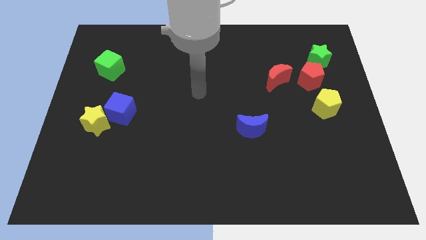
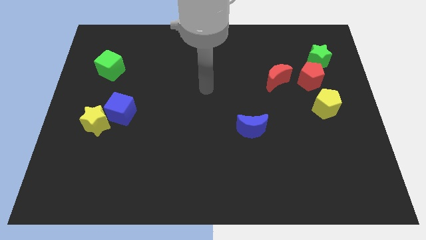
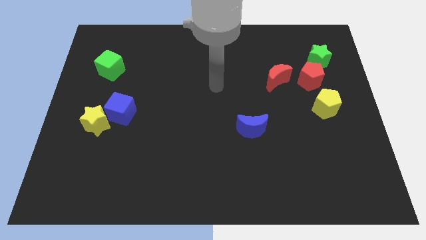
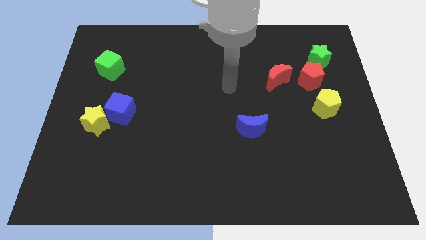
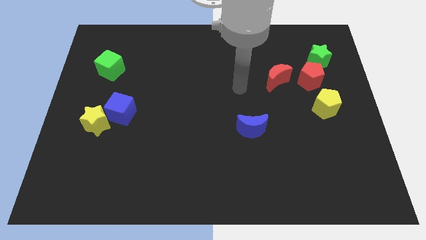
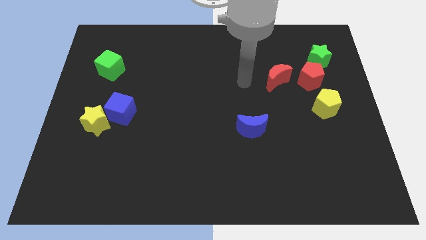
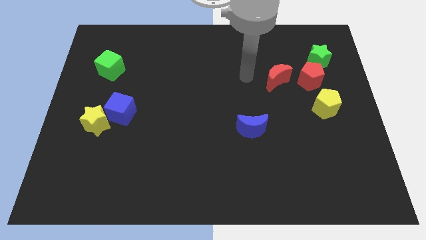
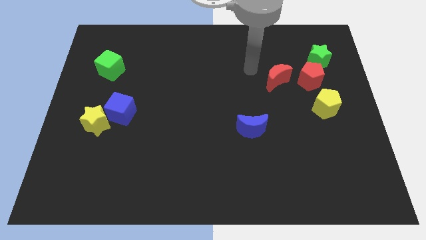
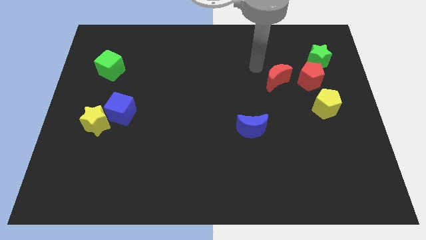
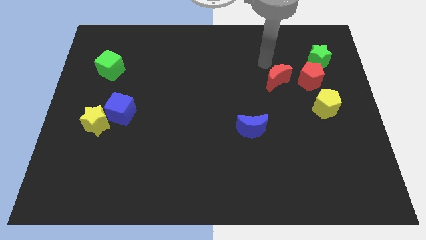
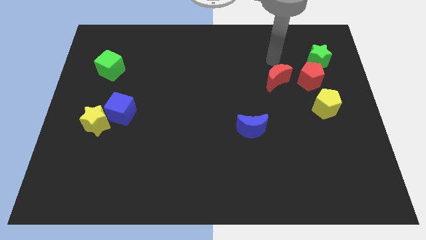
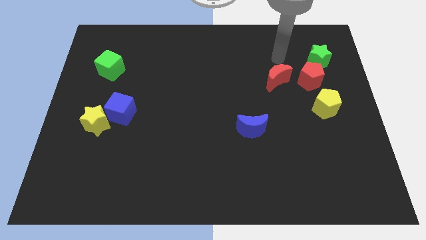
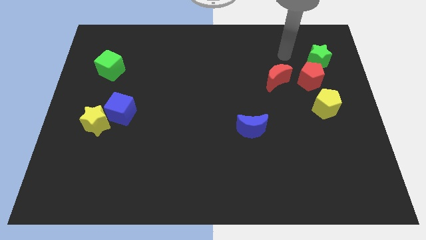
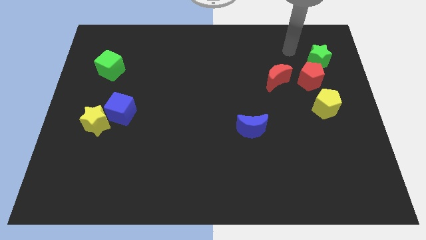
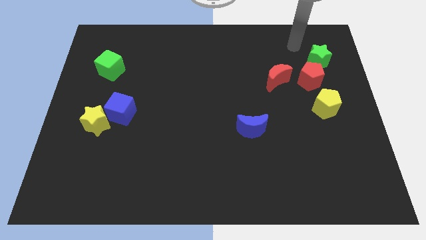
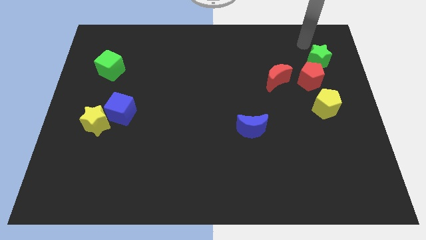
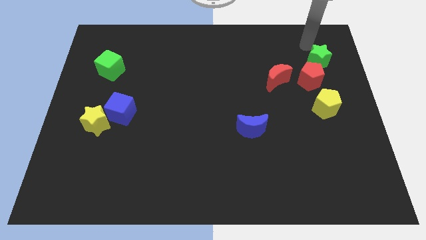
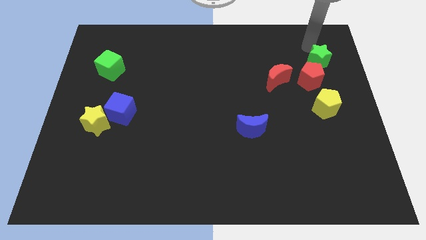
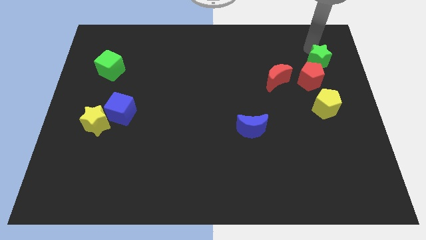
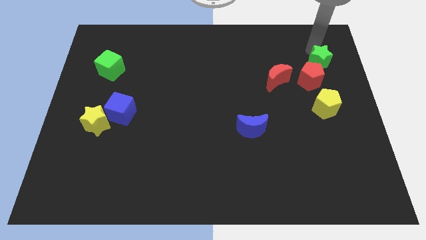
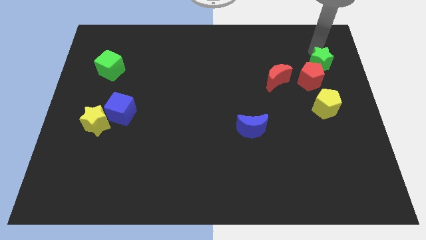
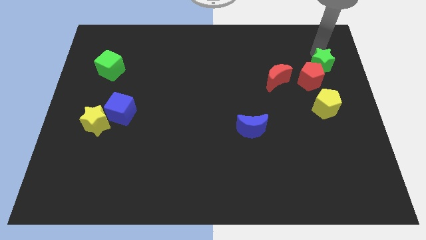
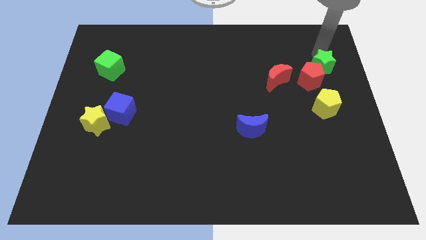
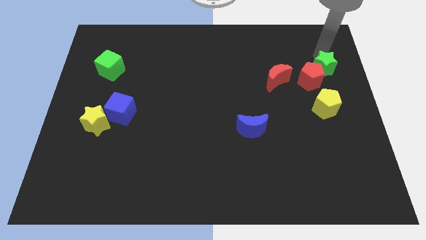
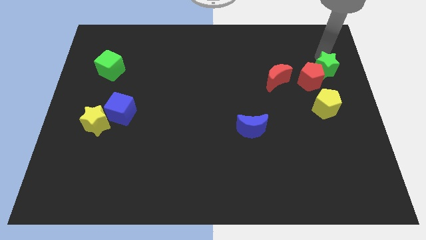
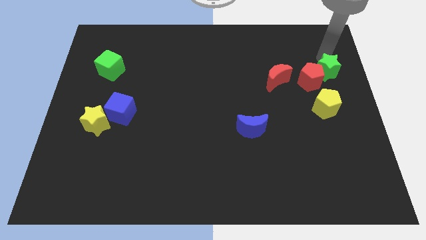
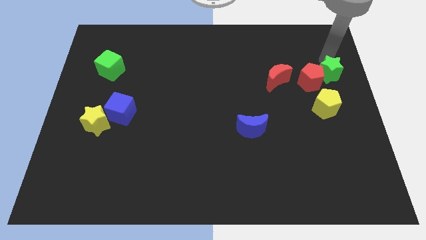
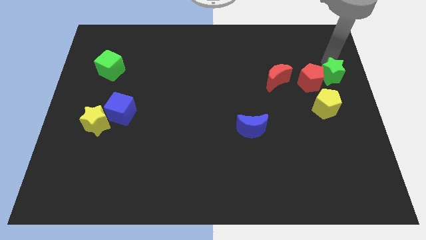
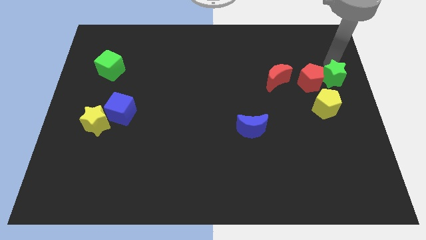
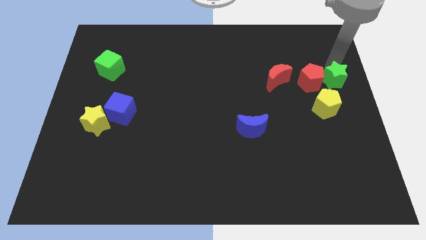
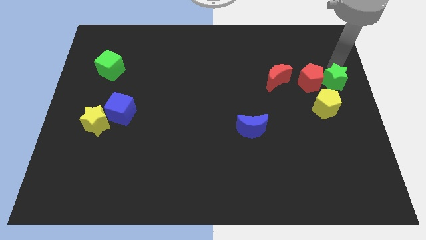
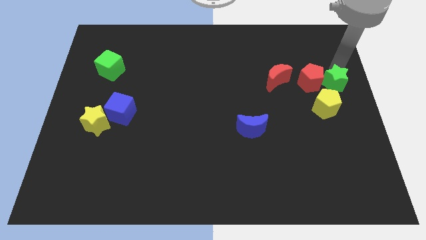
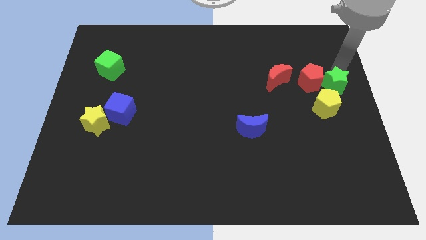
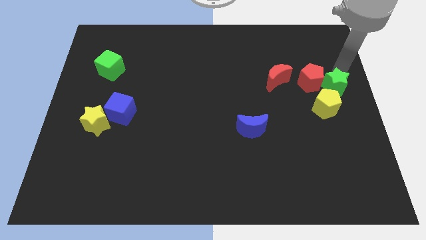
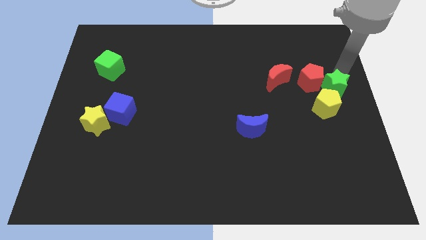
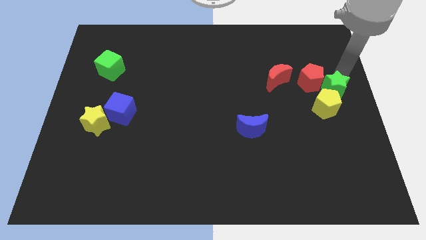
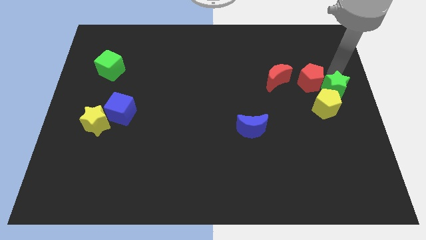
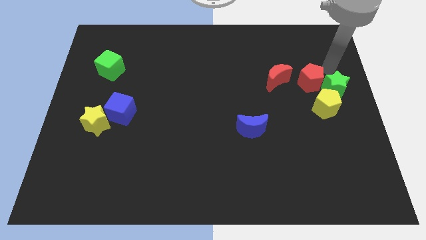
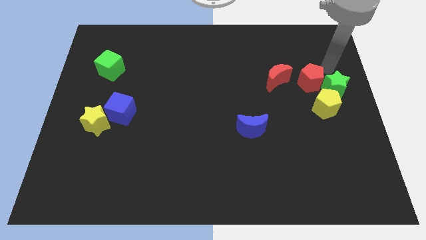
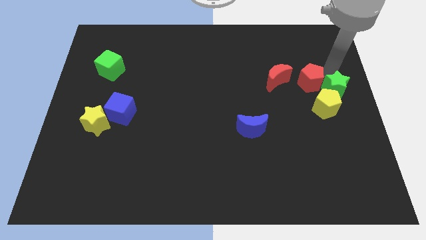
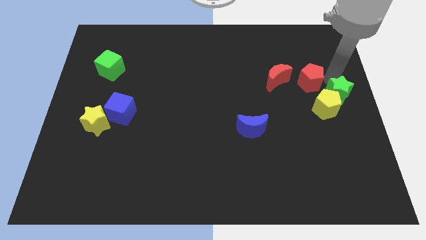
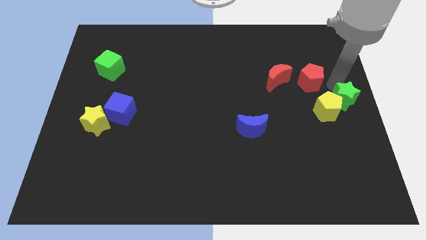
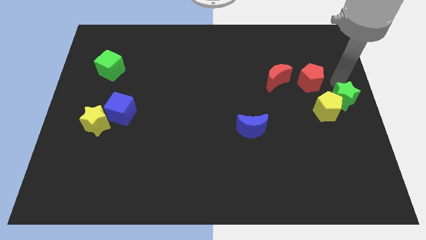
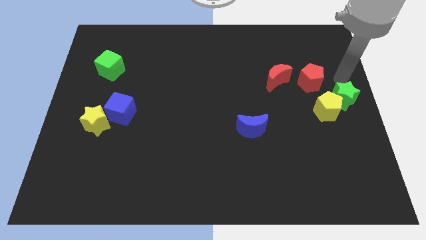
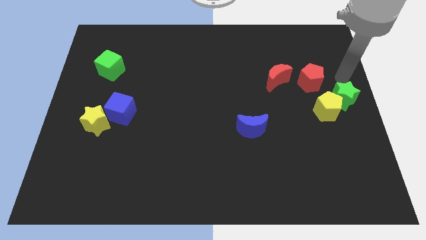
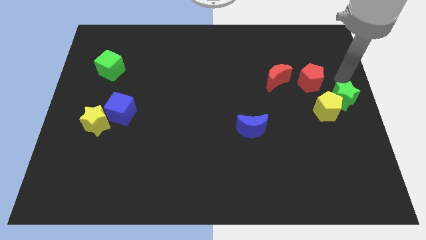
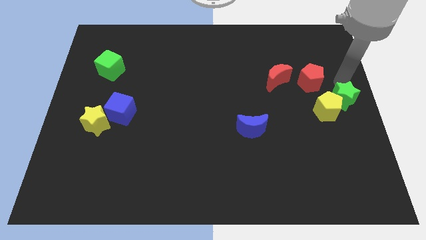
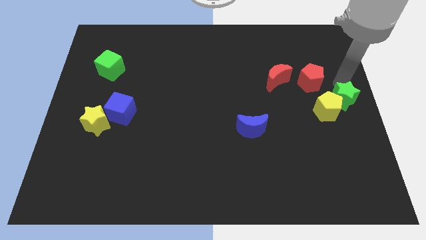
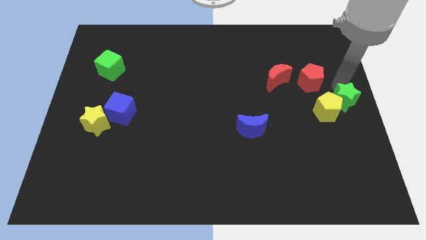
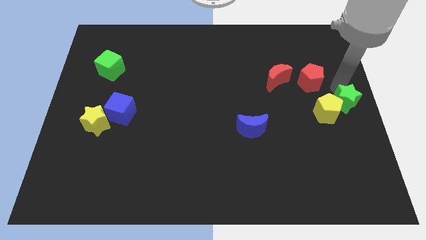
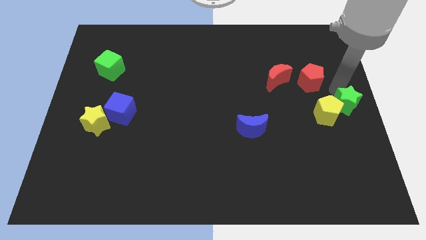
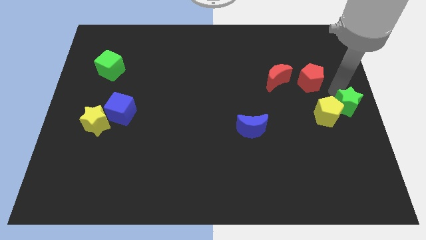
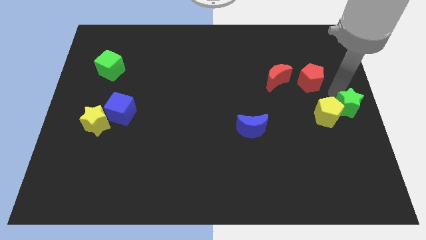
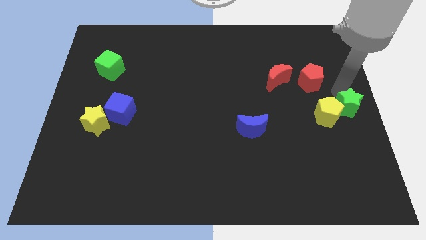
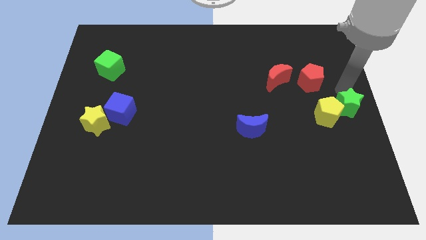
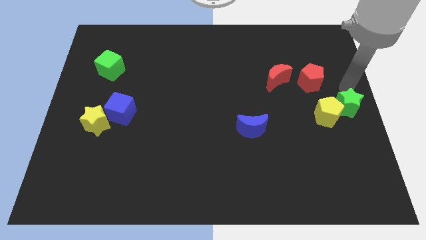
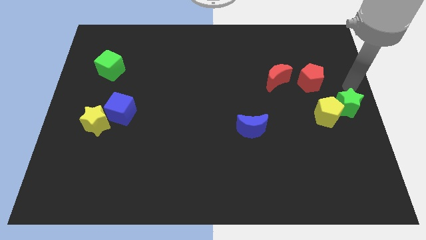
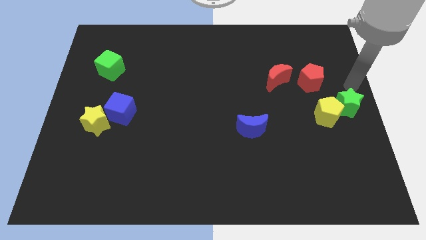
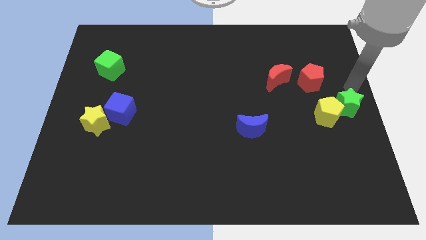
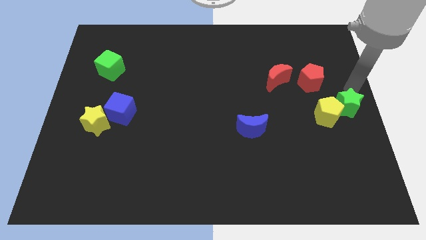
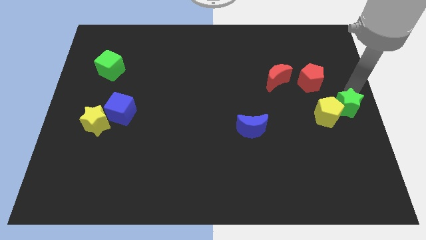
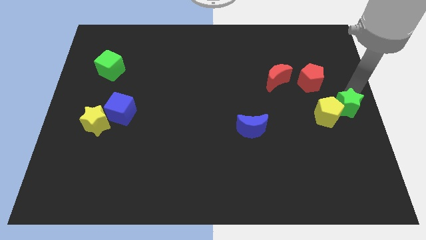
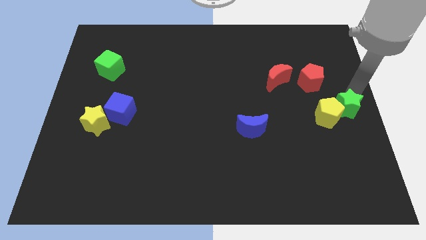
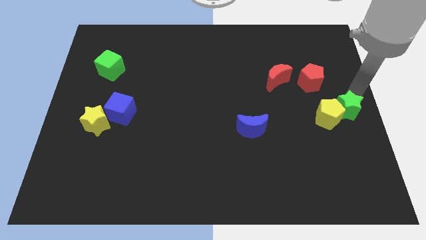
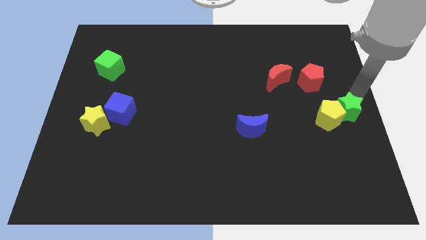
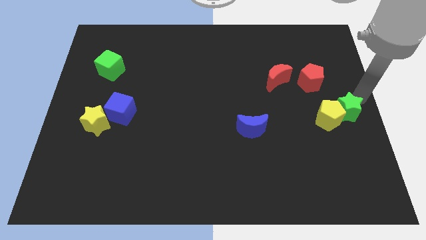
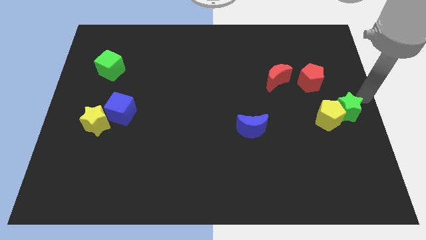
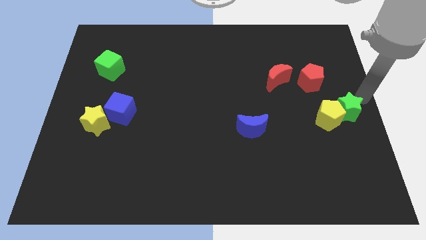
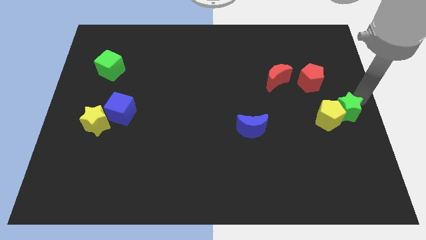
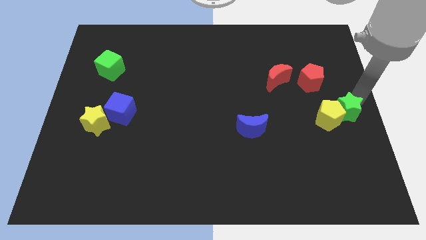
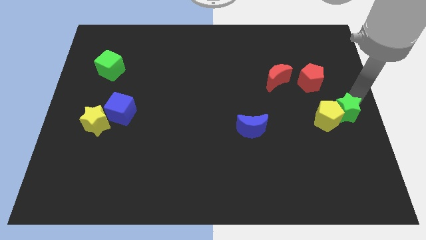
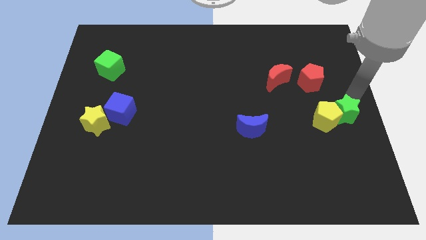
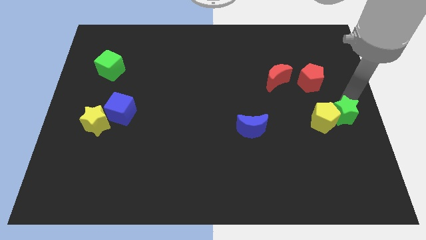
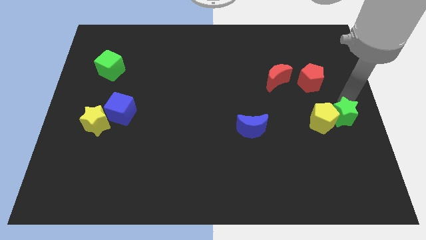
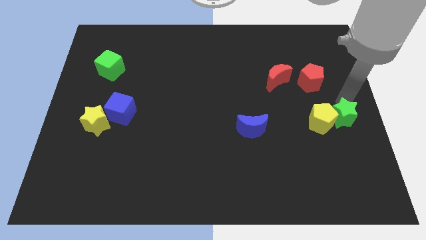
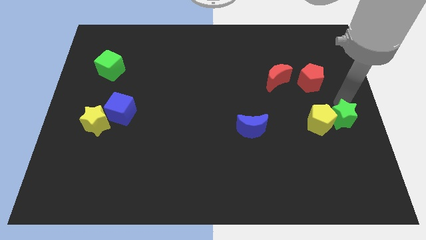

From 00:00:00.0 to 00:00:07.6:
push the green star to the bottom side of the red pentagon
